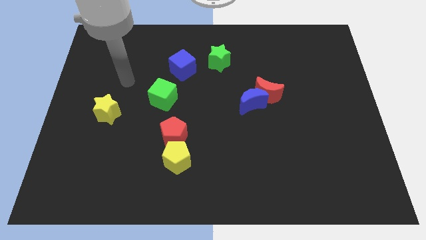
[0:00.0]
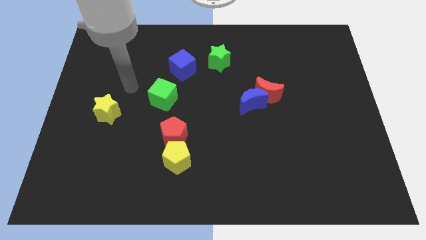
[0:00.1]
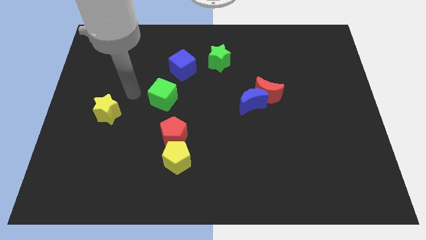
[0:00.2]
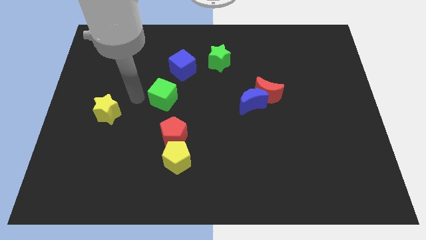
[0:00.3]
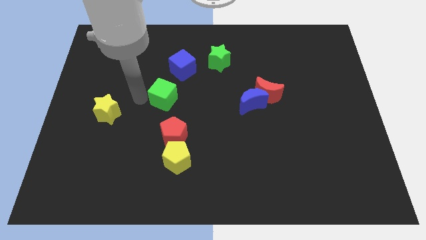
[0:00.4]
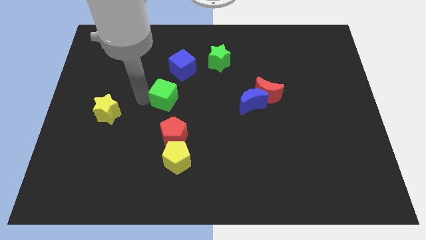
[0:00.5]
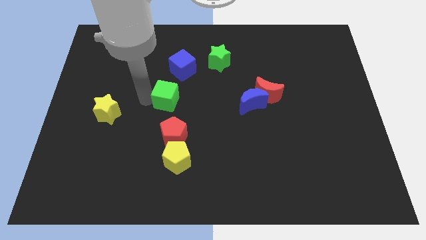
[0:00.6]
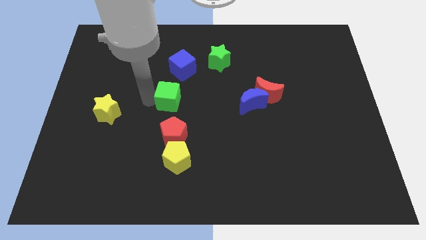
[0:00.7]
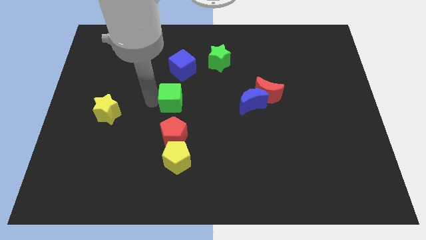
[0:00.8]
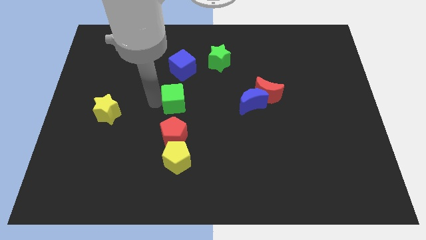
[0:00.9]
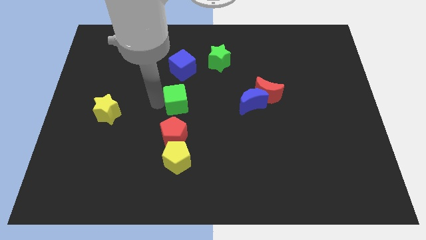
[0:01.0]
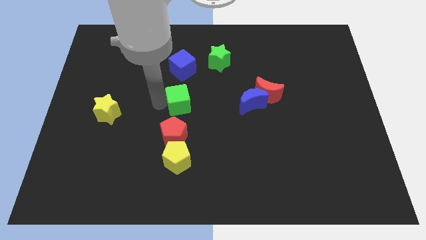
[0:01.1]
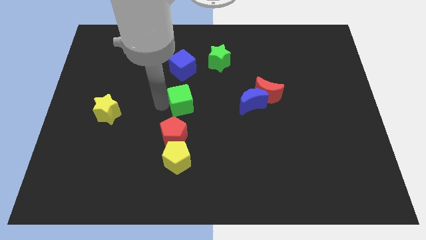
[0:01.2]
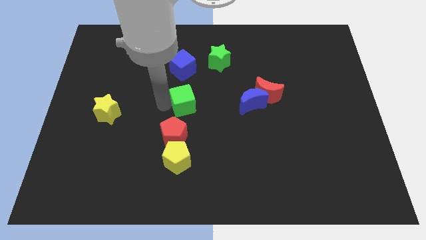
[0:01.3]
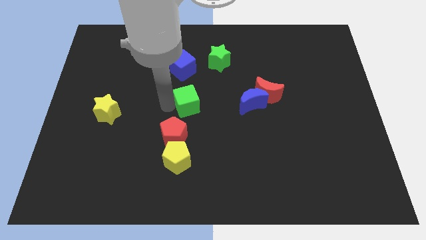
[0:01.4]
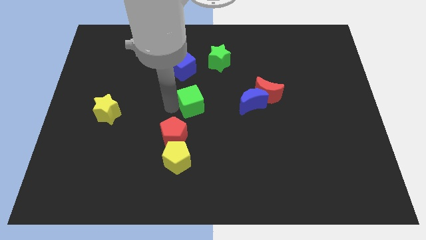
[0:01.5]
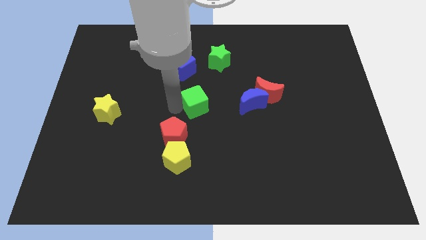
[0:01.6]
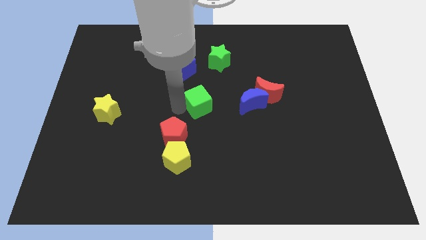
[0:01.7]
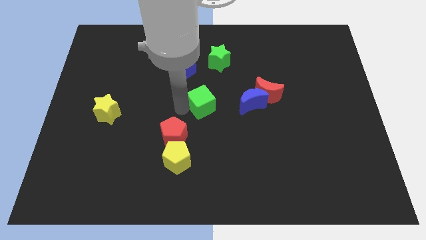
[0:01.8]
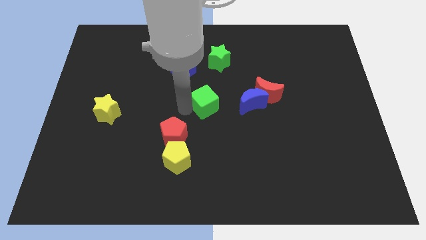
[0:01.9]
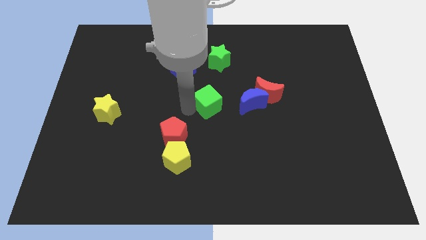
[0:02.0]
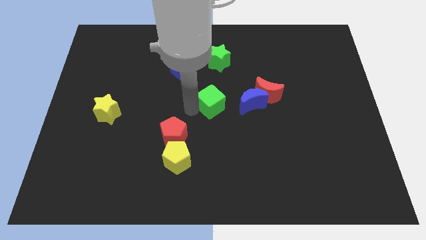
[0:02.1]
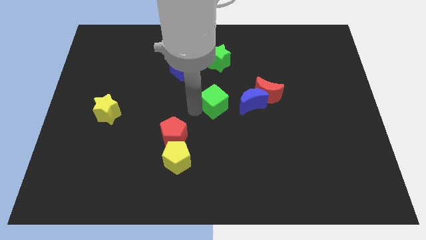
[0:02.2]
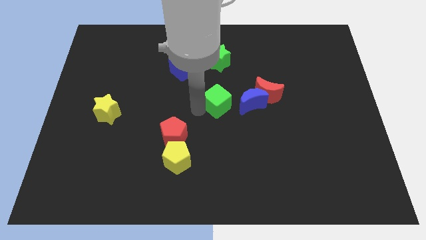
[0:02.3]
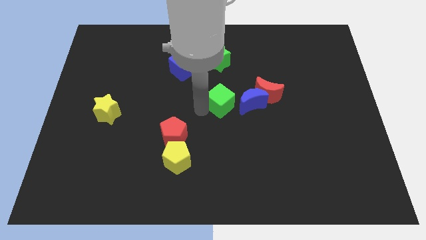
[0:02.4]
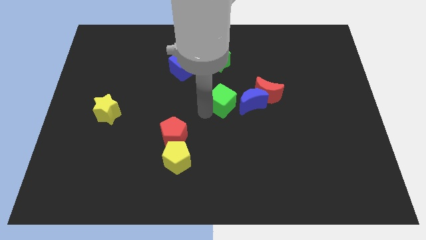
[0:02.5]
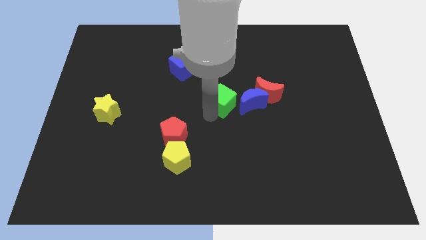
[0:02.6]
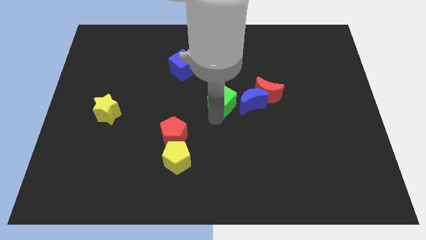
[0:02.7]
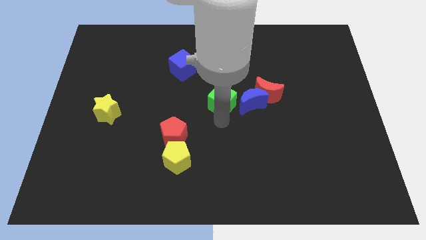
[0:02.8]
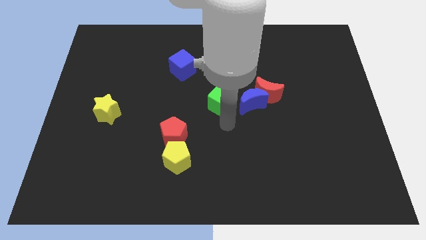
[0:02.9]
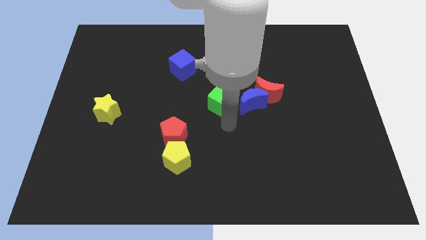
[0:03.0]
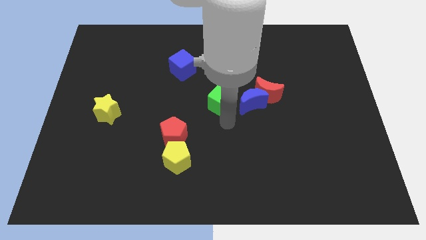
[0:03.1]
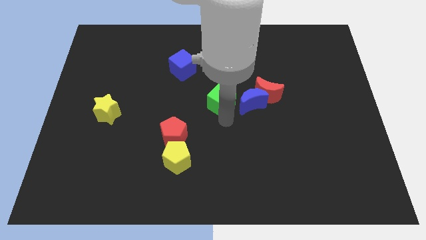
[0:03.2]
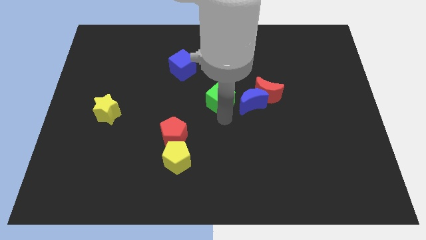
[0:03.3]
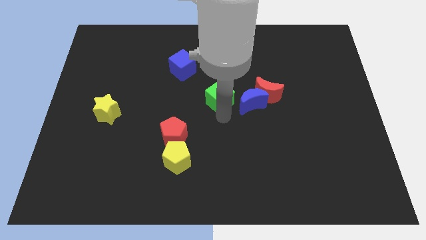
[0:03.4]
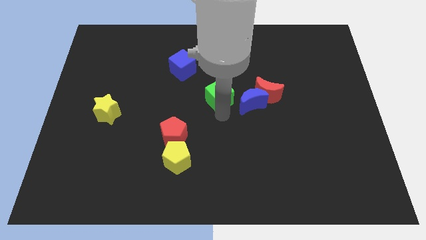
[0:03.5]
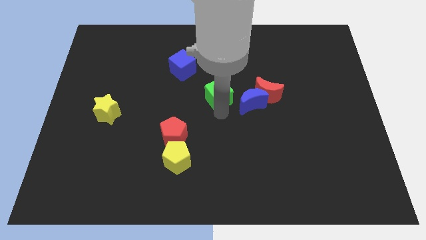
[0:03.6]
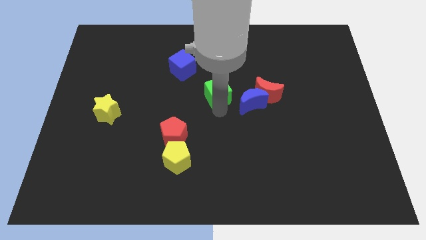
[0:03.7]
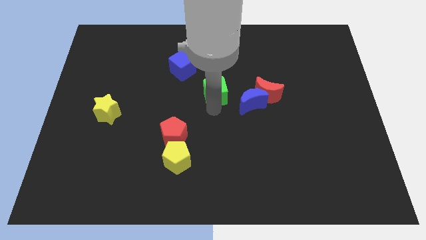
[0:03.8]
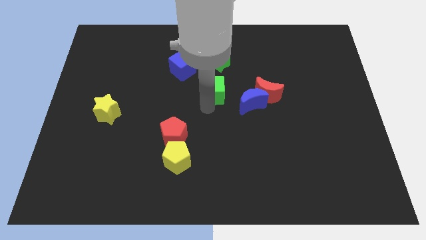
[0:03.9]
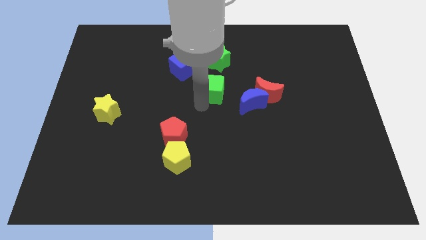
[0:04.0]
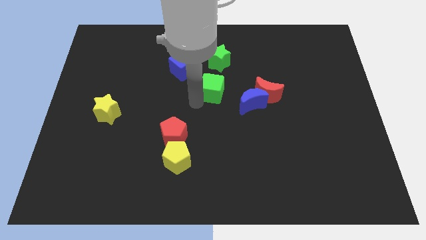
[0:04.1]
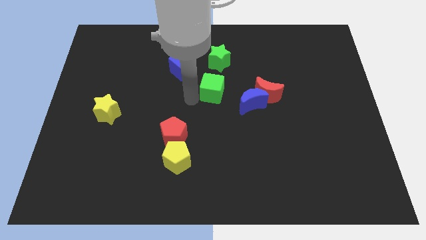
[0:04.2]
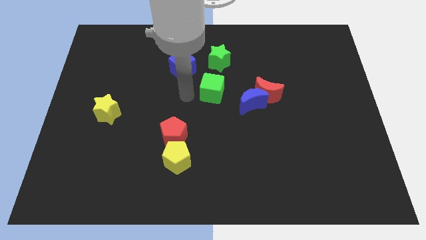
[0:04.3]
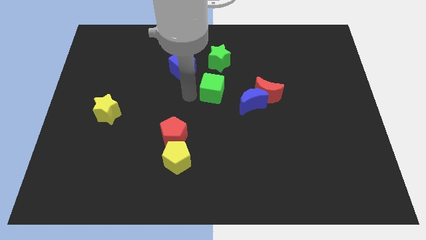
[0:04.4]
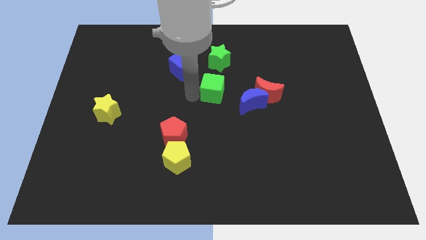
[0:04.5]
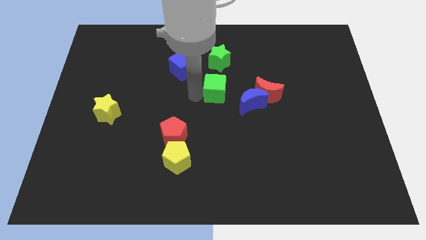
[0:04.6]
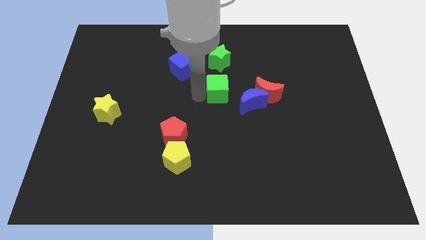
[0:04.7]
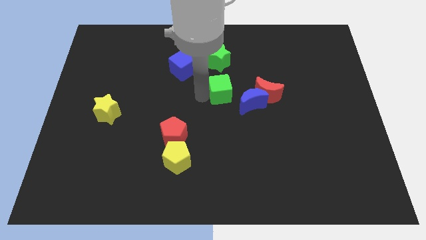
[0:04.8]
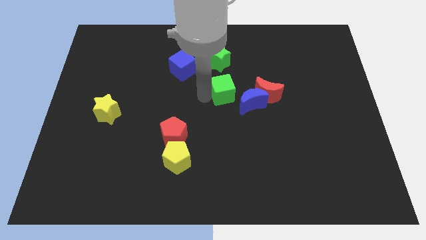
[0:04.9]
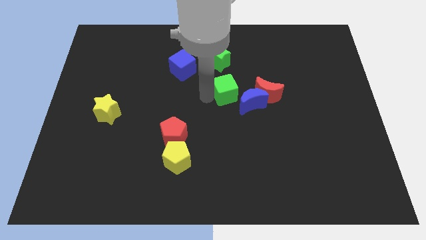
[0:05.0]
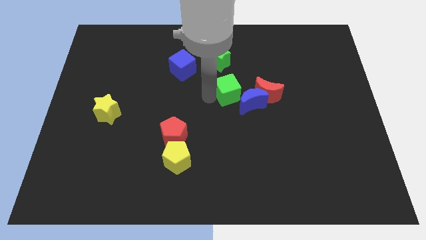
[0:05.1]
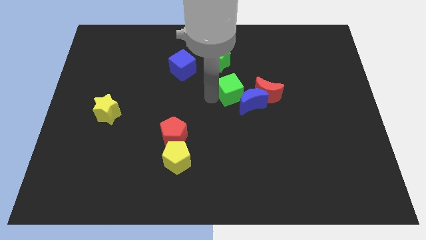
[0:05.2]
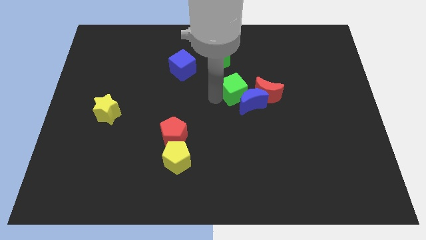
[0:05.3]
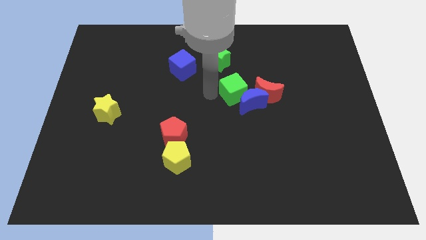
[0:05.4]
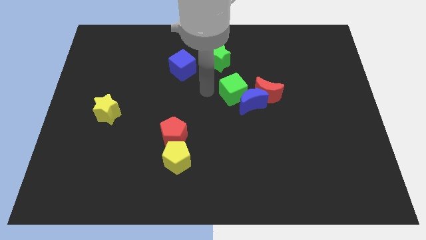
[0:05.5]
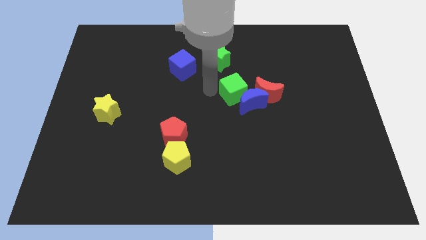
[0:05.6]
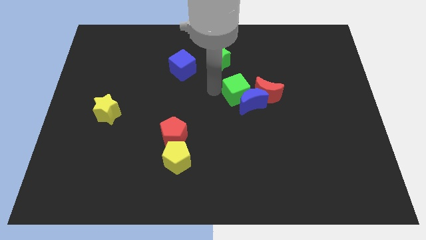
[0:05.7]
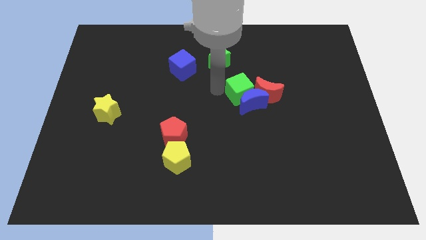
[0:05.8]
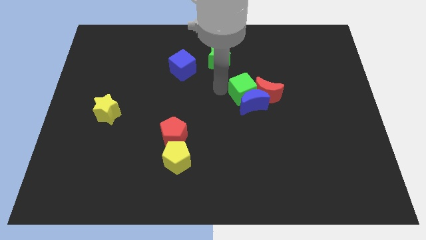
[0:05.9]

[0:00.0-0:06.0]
put the green cube close to the red moon

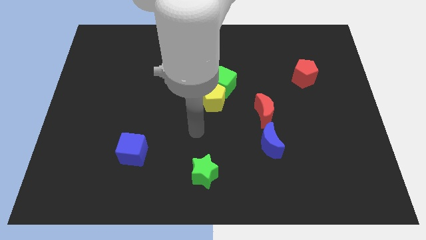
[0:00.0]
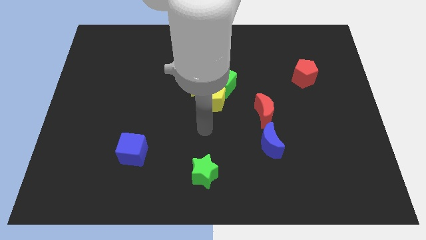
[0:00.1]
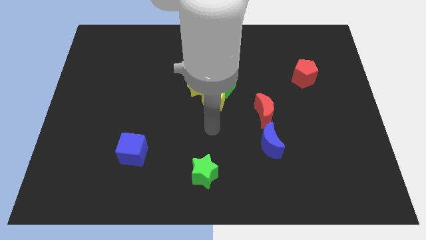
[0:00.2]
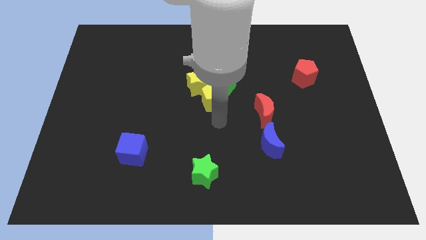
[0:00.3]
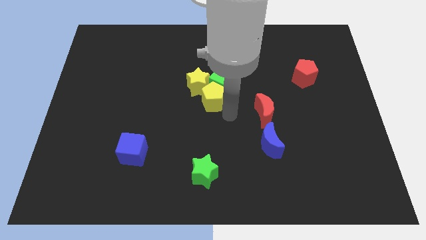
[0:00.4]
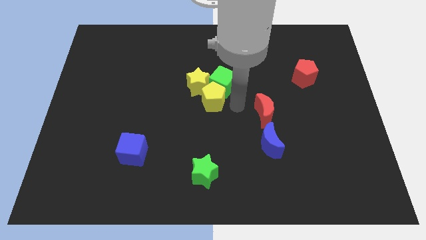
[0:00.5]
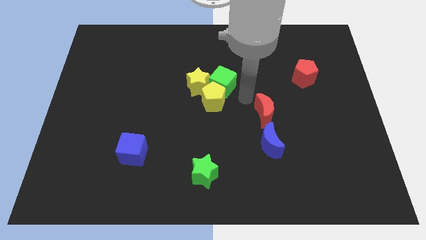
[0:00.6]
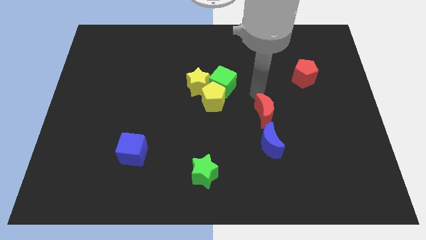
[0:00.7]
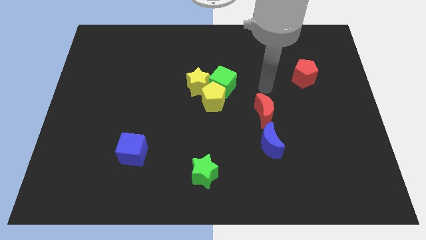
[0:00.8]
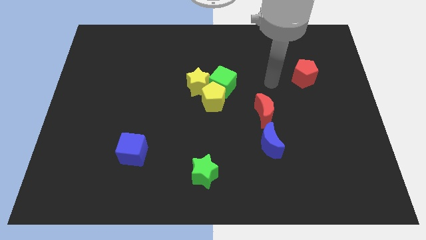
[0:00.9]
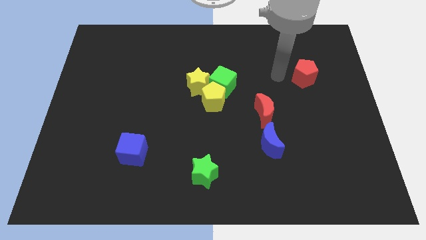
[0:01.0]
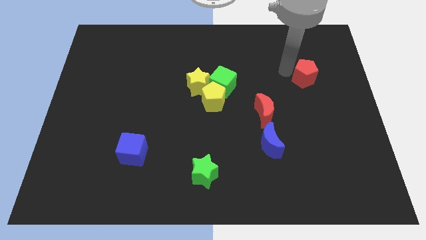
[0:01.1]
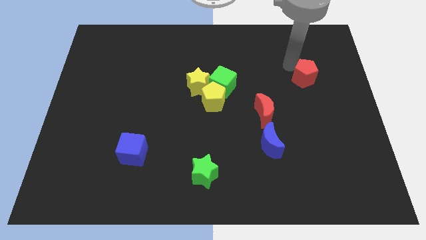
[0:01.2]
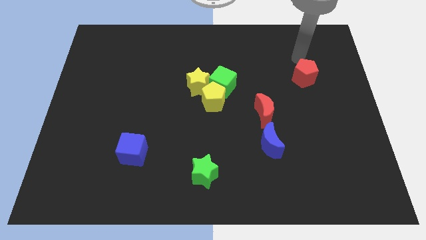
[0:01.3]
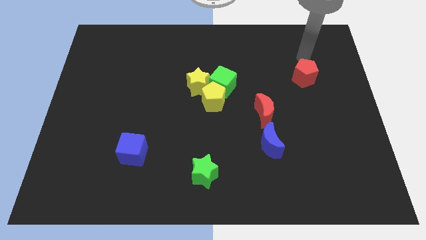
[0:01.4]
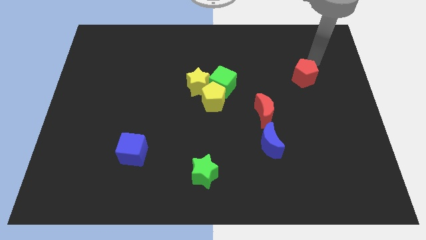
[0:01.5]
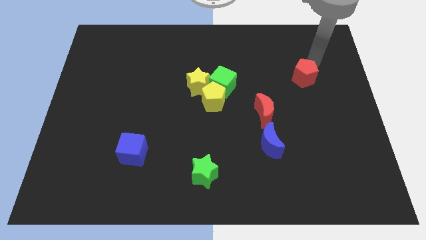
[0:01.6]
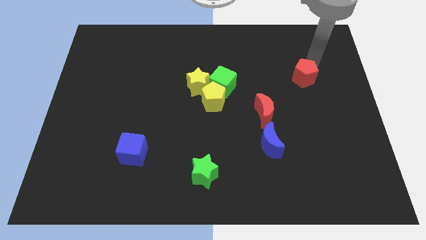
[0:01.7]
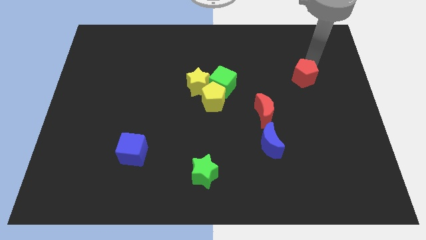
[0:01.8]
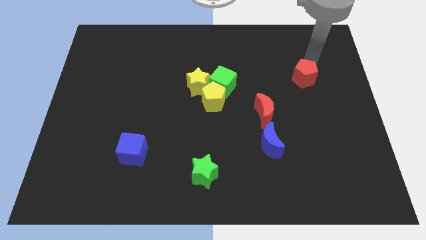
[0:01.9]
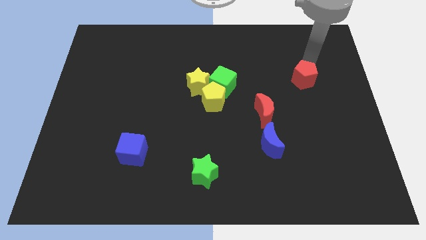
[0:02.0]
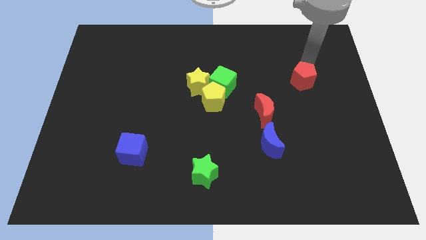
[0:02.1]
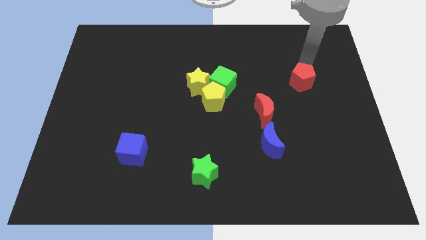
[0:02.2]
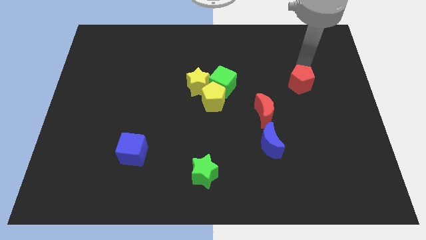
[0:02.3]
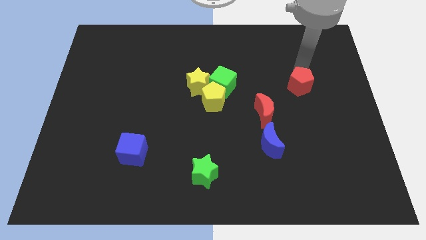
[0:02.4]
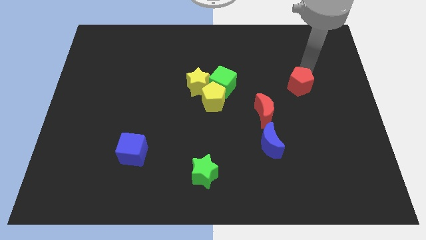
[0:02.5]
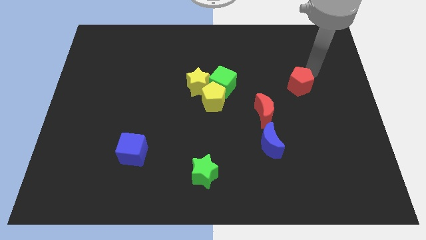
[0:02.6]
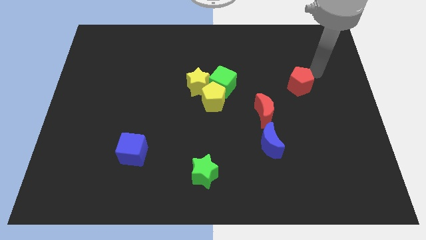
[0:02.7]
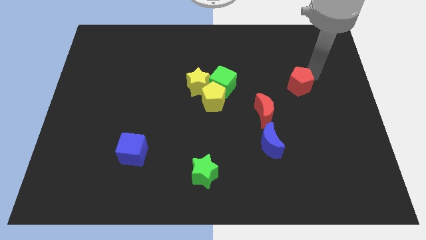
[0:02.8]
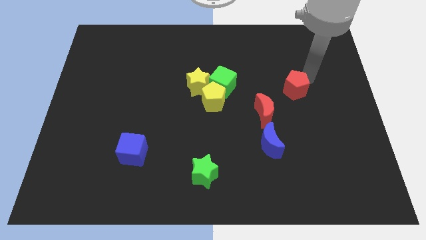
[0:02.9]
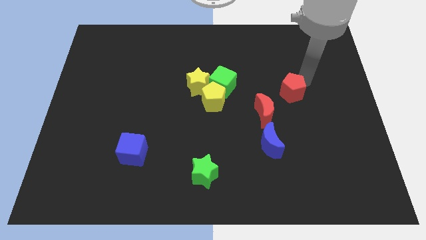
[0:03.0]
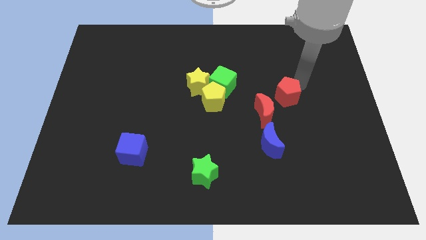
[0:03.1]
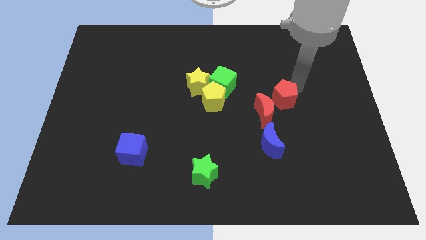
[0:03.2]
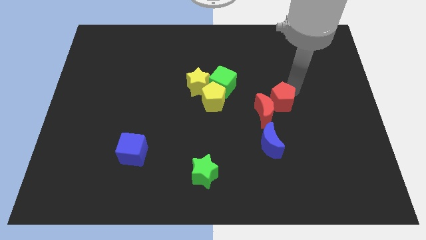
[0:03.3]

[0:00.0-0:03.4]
put the red pentagon close to the red moon
